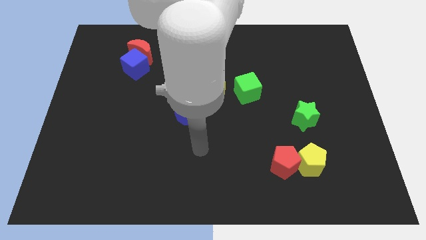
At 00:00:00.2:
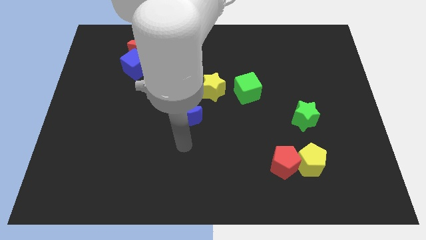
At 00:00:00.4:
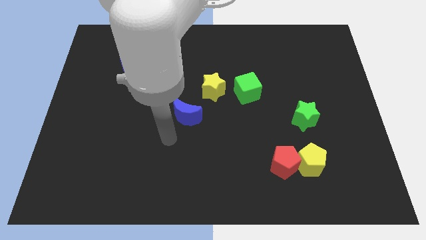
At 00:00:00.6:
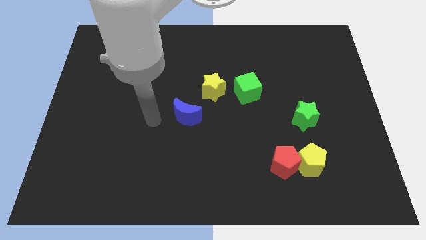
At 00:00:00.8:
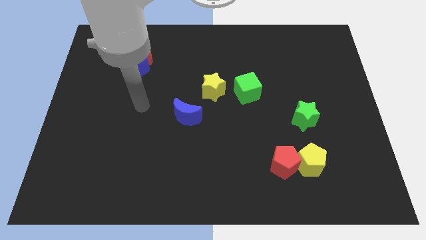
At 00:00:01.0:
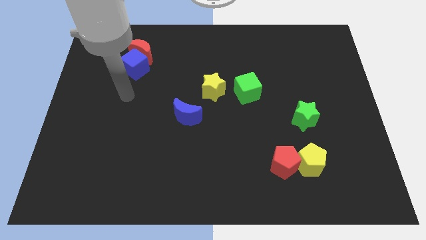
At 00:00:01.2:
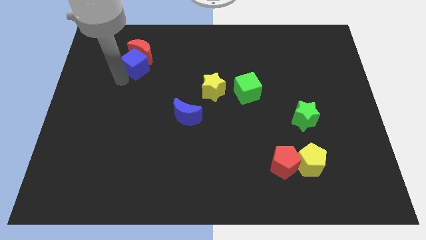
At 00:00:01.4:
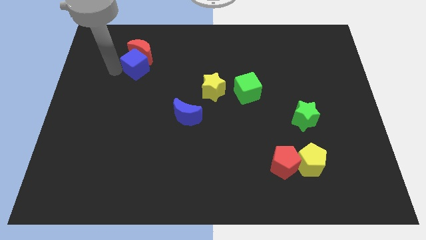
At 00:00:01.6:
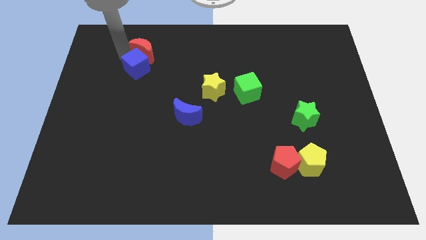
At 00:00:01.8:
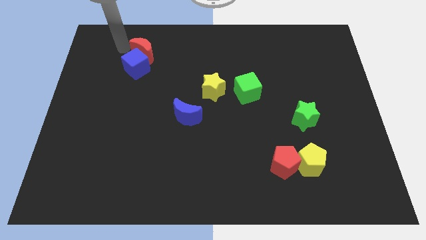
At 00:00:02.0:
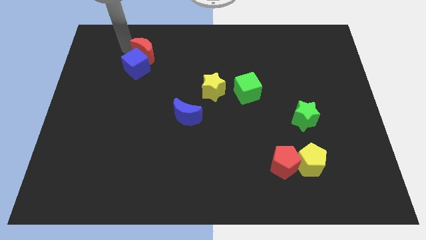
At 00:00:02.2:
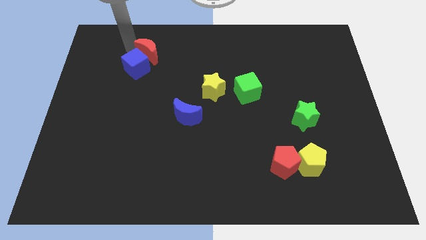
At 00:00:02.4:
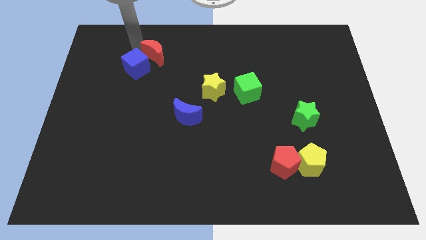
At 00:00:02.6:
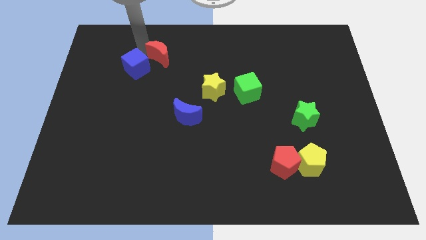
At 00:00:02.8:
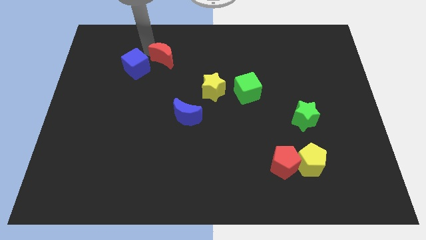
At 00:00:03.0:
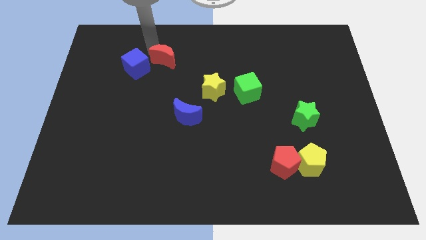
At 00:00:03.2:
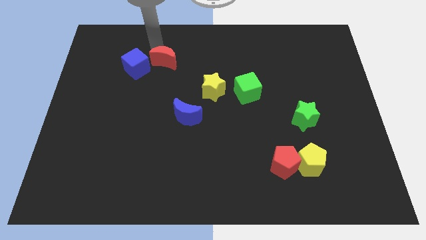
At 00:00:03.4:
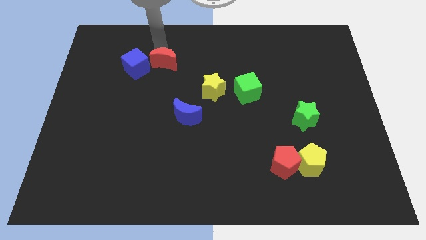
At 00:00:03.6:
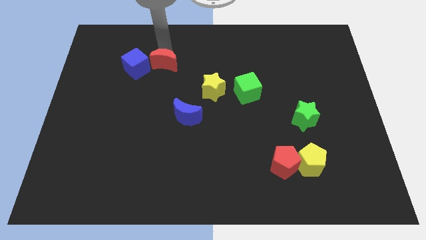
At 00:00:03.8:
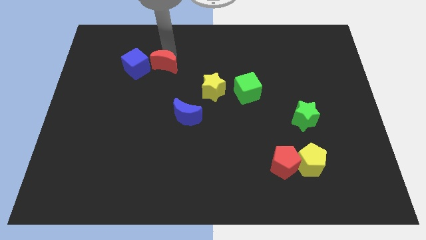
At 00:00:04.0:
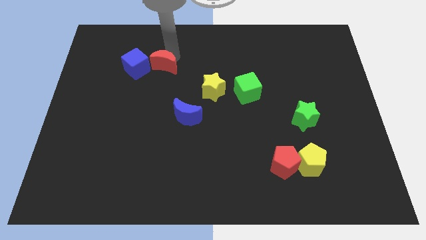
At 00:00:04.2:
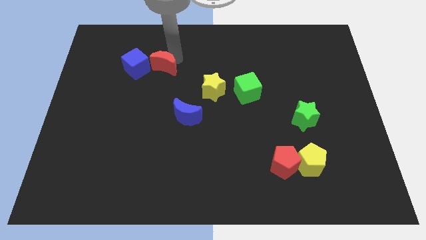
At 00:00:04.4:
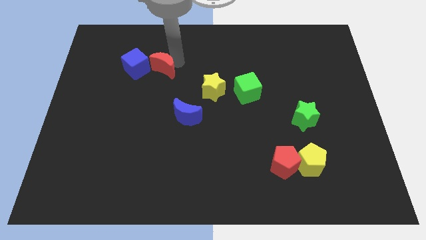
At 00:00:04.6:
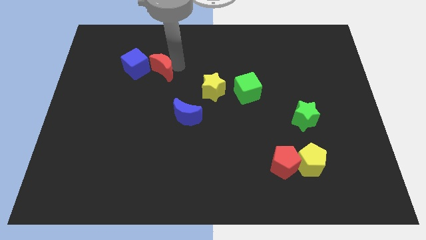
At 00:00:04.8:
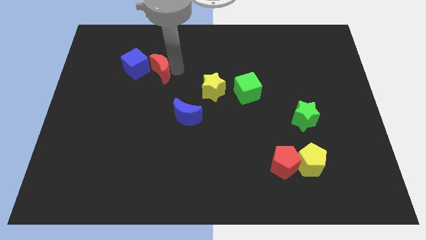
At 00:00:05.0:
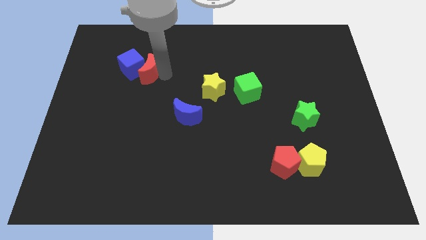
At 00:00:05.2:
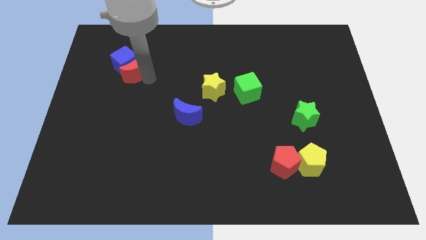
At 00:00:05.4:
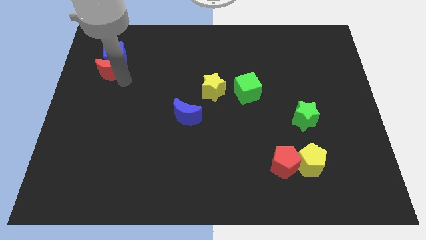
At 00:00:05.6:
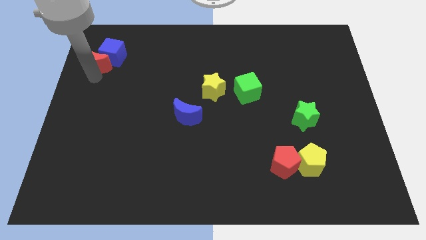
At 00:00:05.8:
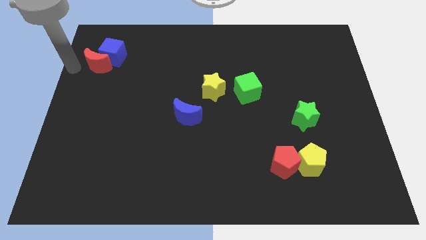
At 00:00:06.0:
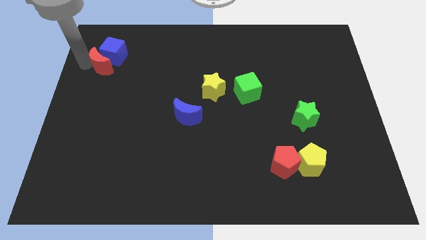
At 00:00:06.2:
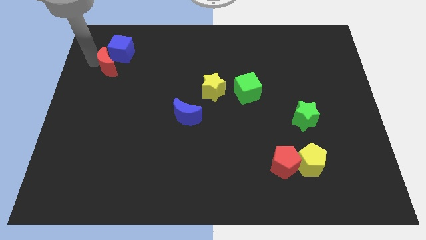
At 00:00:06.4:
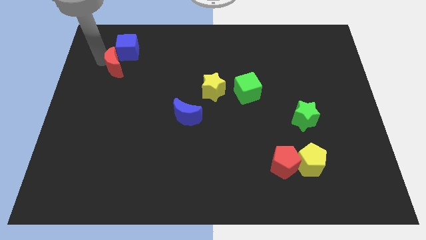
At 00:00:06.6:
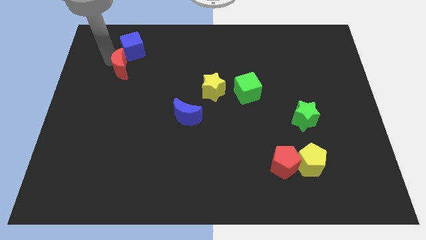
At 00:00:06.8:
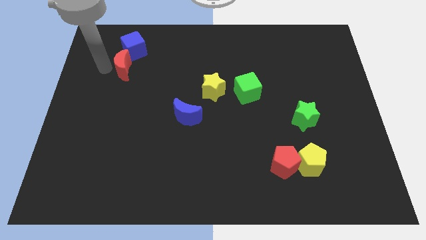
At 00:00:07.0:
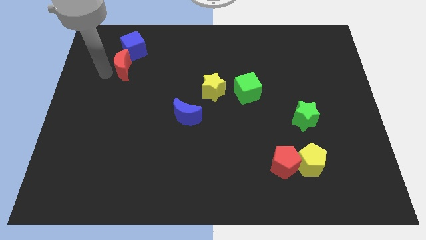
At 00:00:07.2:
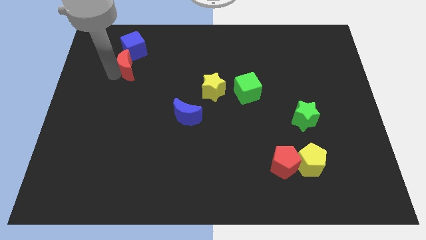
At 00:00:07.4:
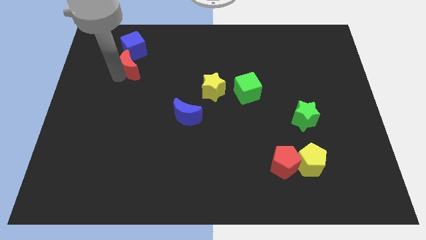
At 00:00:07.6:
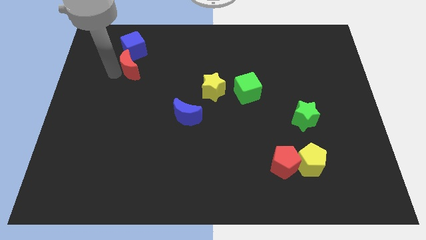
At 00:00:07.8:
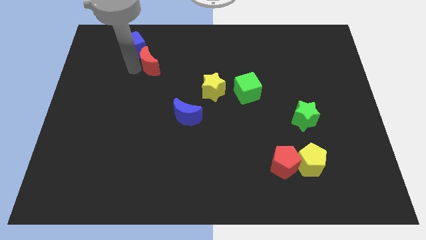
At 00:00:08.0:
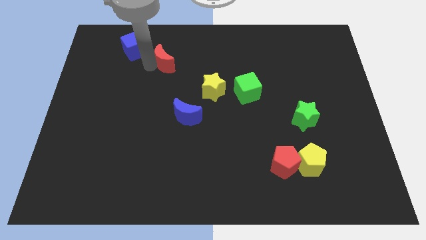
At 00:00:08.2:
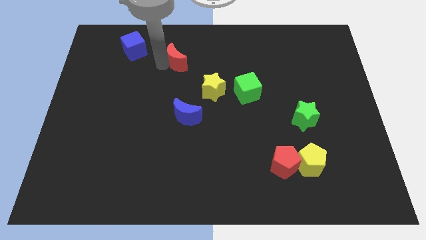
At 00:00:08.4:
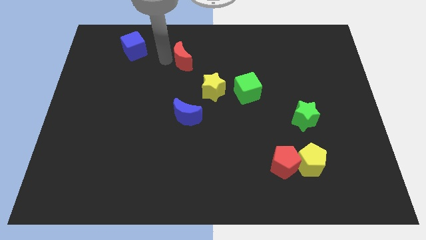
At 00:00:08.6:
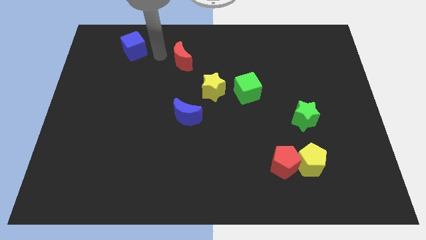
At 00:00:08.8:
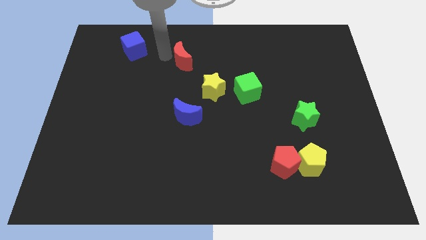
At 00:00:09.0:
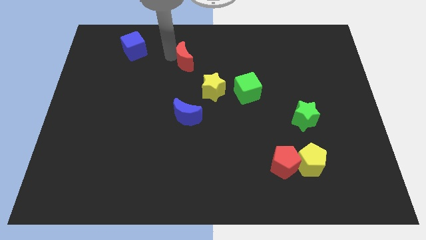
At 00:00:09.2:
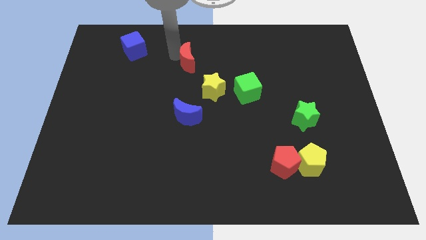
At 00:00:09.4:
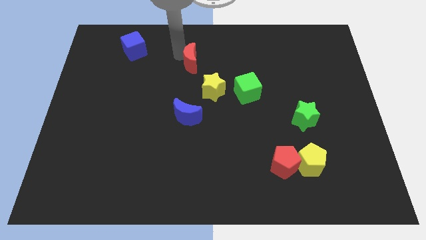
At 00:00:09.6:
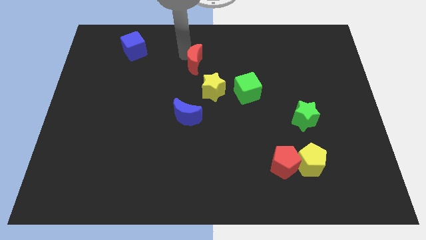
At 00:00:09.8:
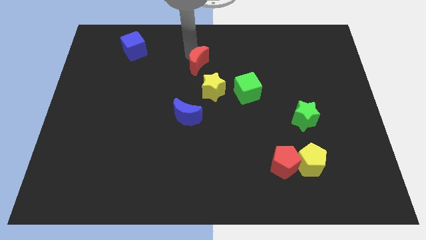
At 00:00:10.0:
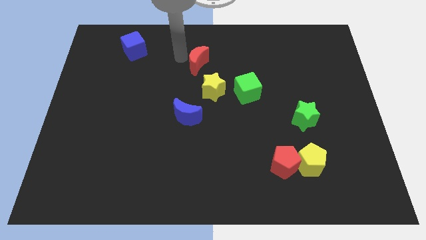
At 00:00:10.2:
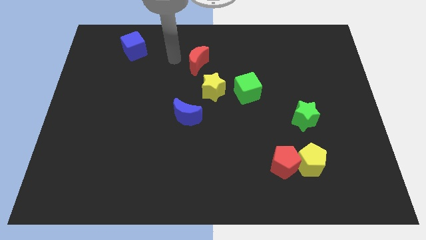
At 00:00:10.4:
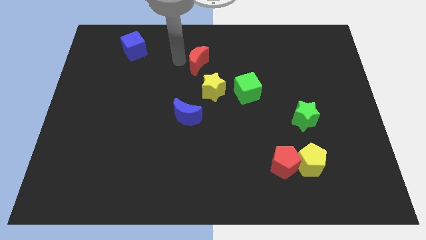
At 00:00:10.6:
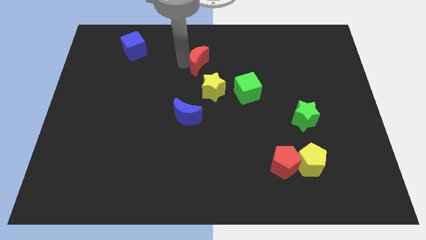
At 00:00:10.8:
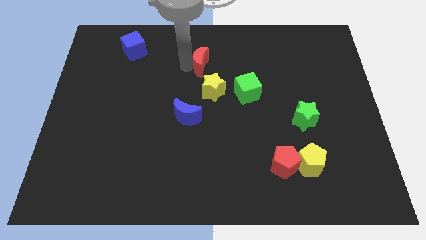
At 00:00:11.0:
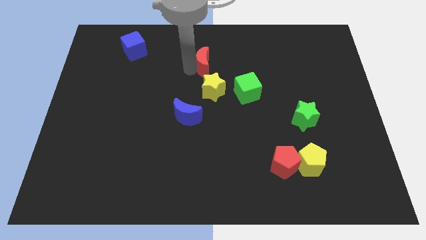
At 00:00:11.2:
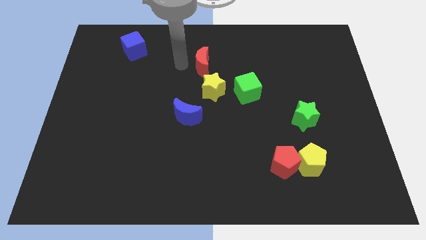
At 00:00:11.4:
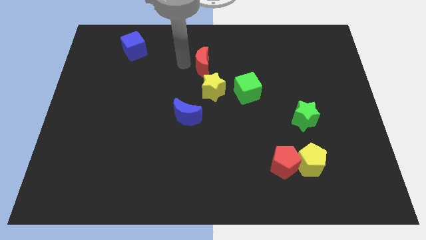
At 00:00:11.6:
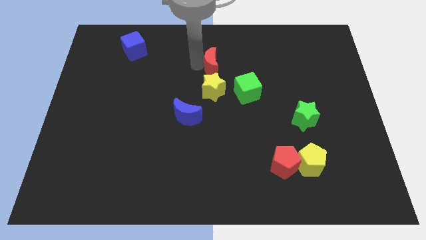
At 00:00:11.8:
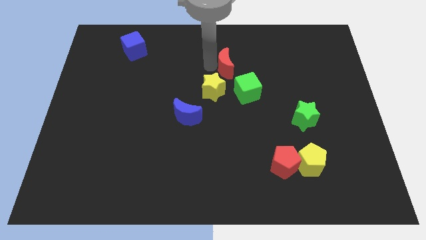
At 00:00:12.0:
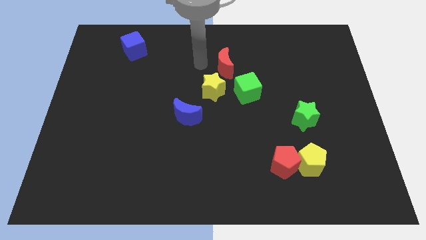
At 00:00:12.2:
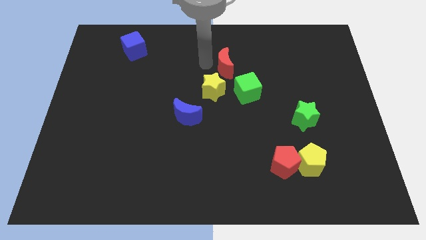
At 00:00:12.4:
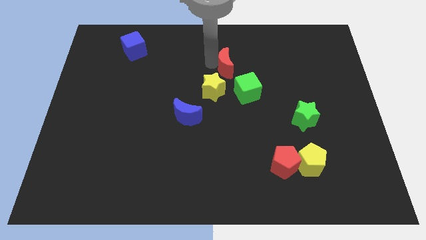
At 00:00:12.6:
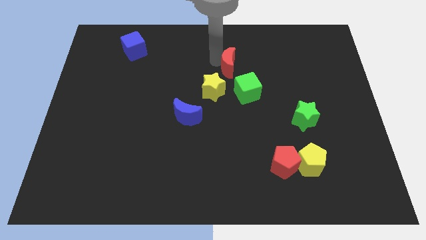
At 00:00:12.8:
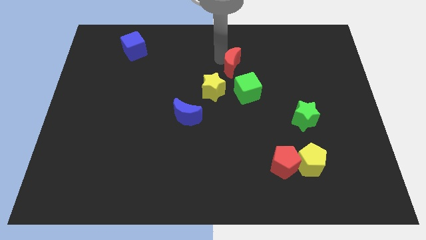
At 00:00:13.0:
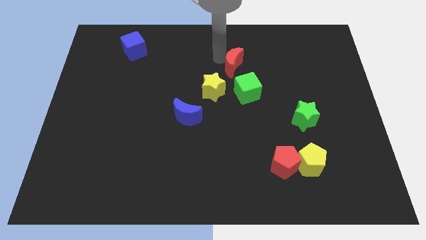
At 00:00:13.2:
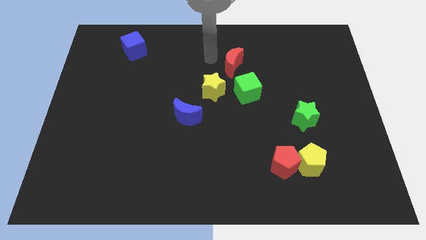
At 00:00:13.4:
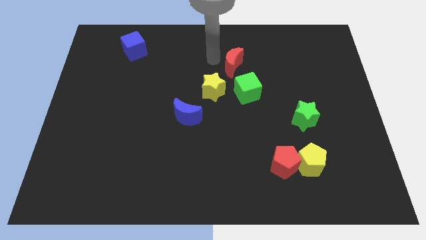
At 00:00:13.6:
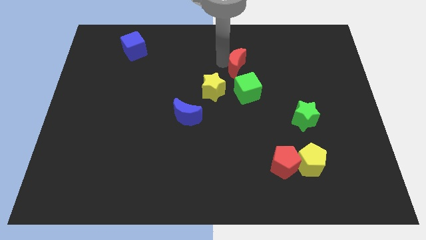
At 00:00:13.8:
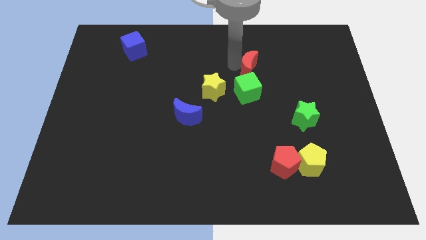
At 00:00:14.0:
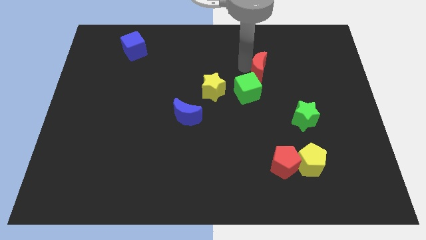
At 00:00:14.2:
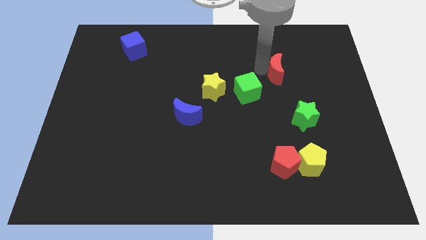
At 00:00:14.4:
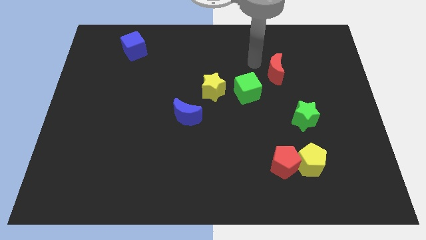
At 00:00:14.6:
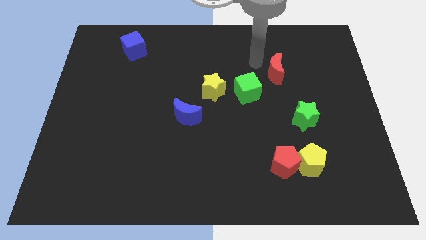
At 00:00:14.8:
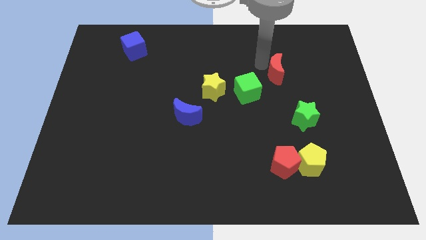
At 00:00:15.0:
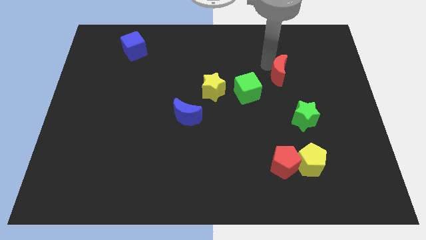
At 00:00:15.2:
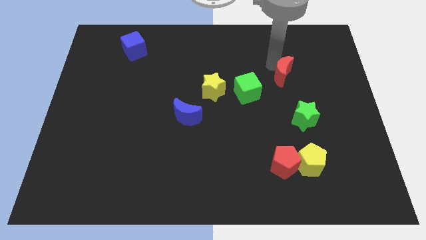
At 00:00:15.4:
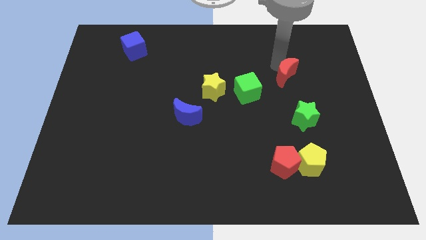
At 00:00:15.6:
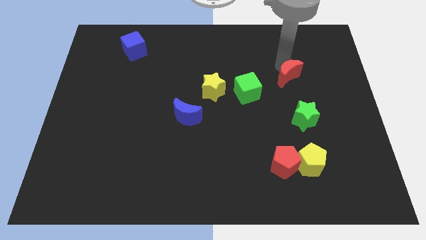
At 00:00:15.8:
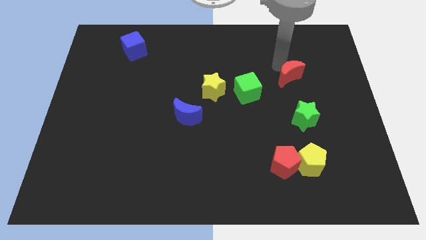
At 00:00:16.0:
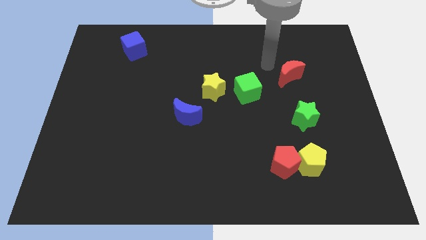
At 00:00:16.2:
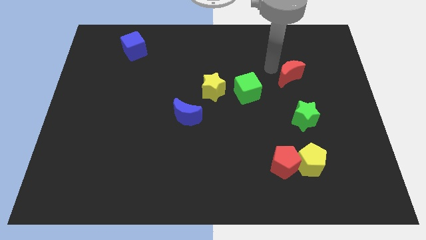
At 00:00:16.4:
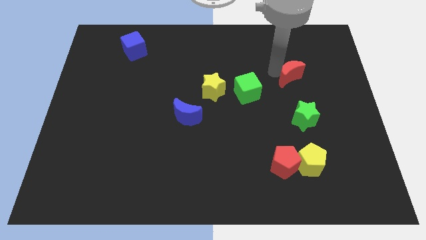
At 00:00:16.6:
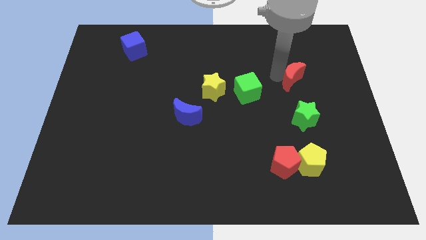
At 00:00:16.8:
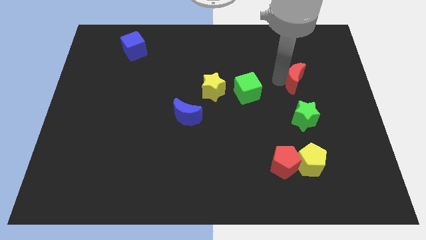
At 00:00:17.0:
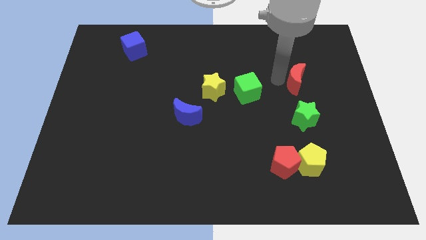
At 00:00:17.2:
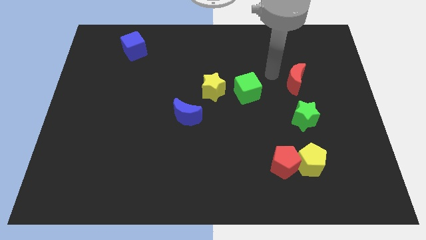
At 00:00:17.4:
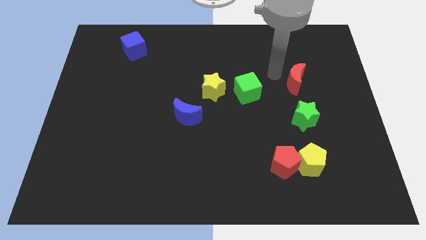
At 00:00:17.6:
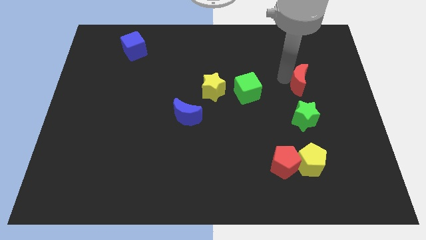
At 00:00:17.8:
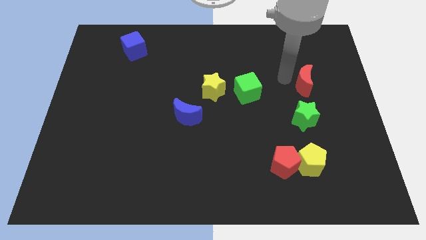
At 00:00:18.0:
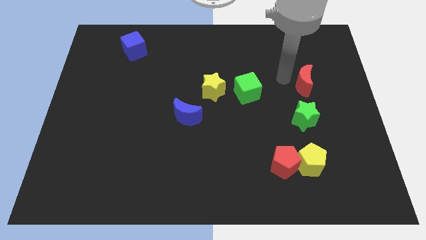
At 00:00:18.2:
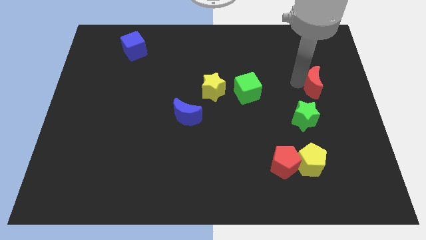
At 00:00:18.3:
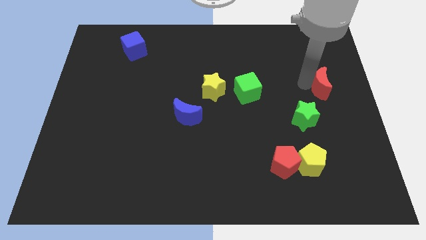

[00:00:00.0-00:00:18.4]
push the red moon to the right side
